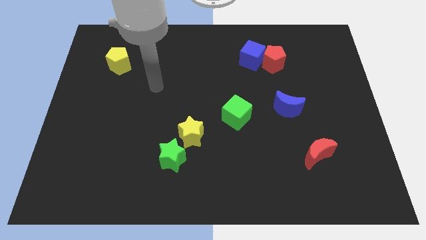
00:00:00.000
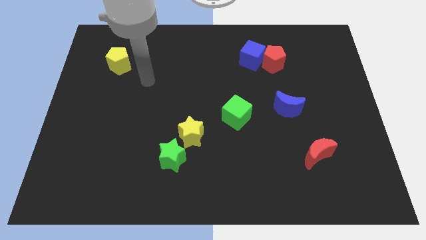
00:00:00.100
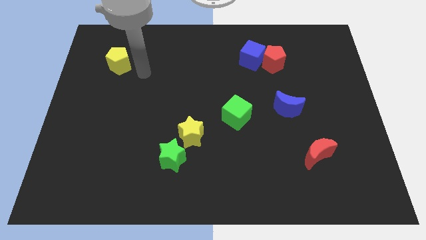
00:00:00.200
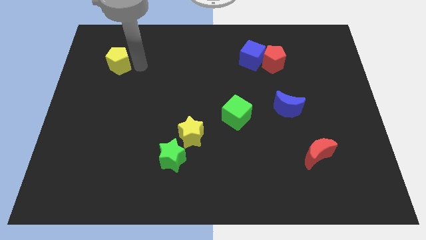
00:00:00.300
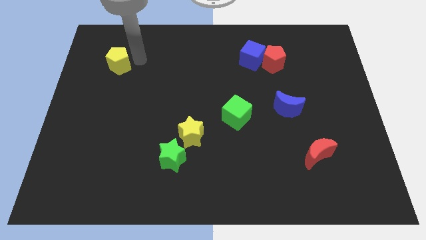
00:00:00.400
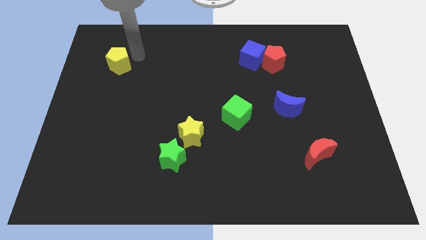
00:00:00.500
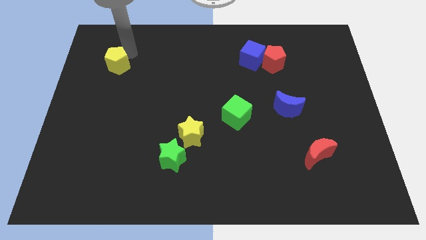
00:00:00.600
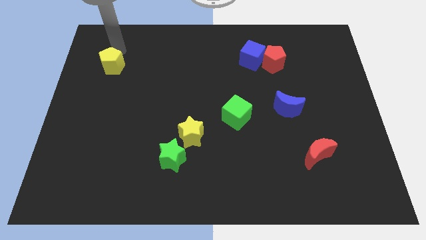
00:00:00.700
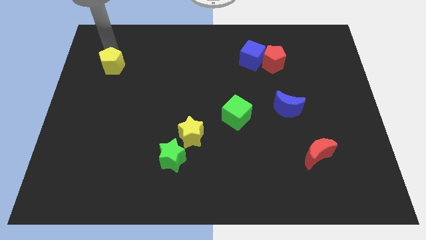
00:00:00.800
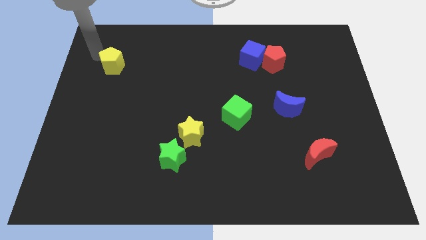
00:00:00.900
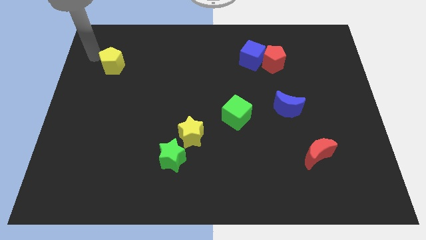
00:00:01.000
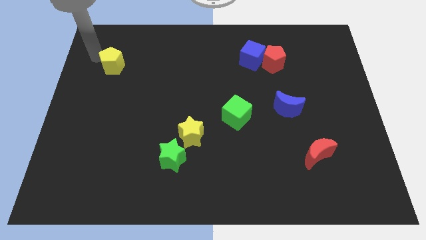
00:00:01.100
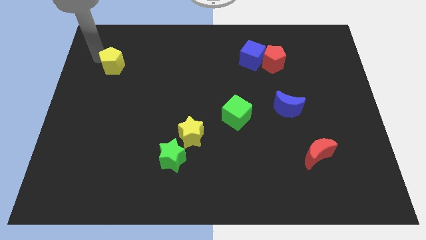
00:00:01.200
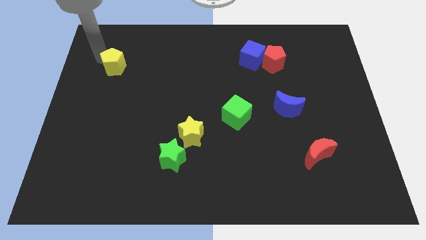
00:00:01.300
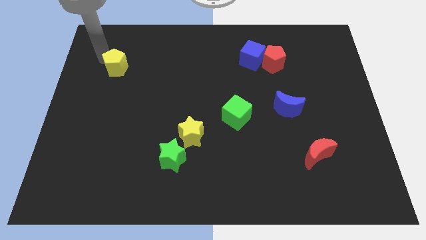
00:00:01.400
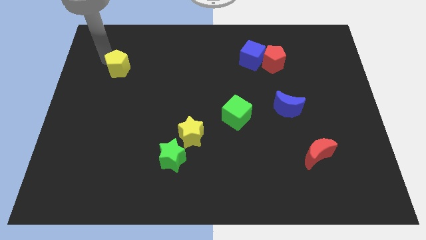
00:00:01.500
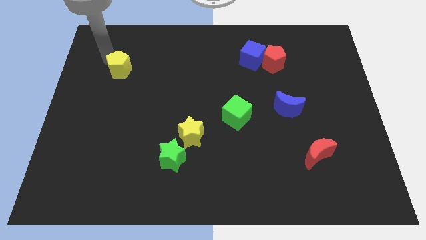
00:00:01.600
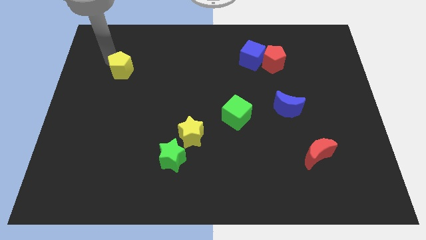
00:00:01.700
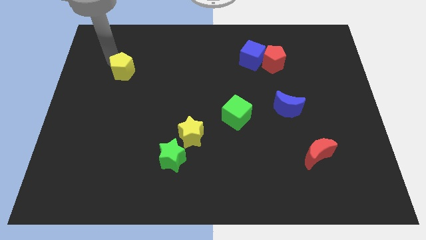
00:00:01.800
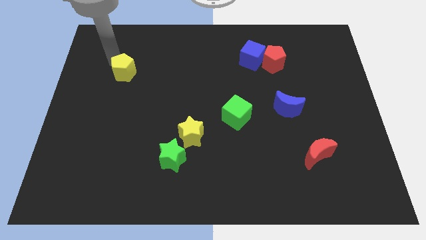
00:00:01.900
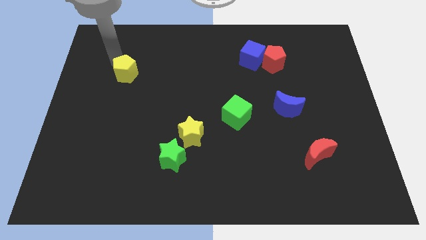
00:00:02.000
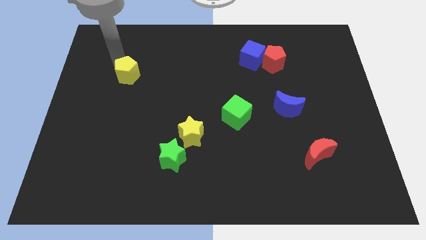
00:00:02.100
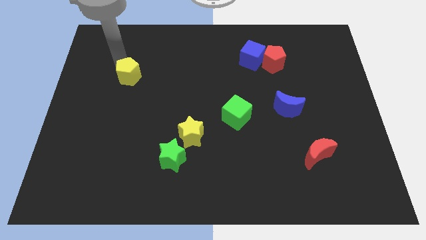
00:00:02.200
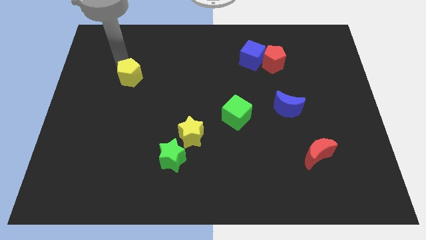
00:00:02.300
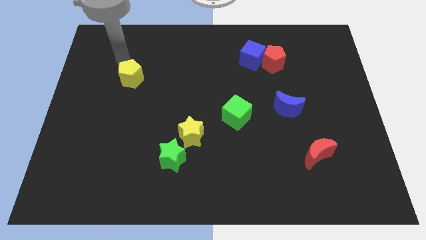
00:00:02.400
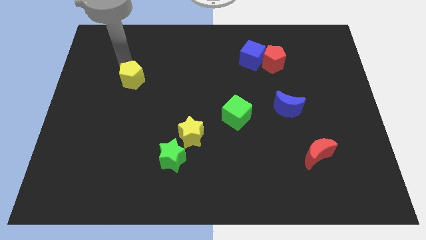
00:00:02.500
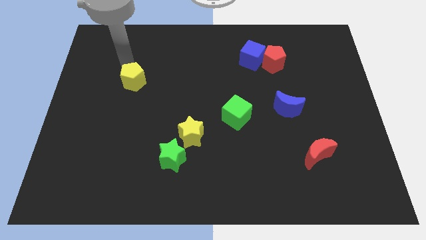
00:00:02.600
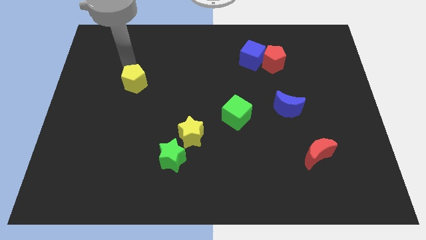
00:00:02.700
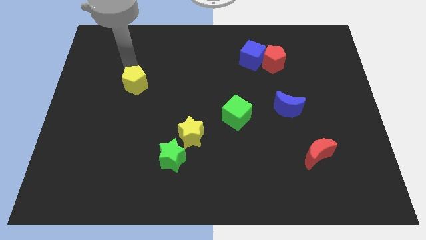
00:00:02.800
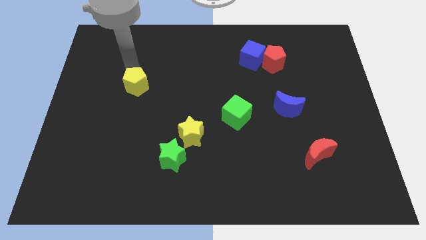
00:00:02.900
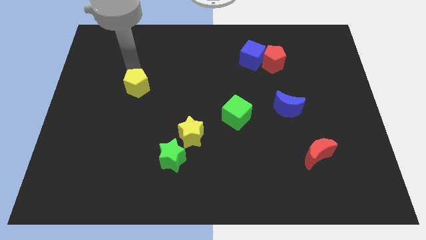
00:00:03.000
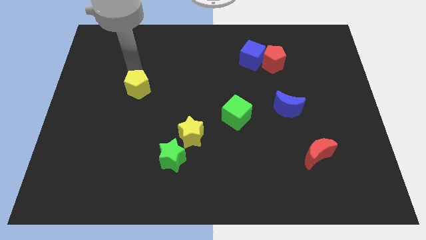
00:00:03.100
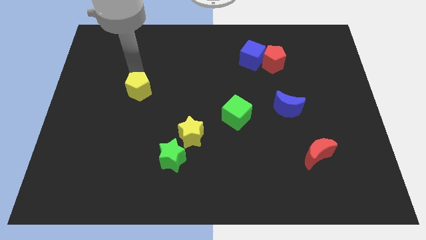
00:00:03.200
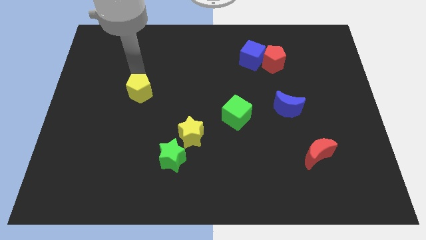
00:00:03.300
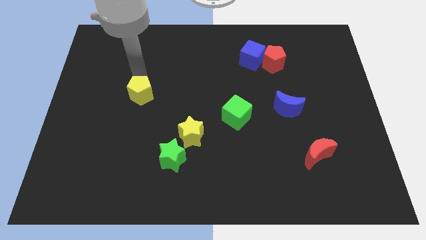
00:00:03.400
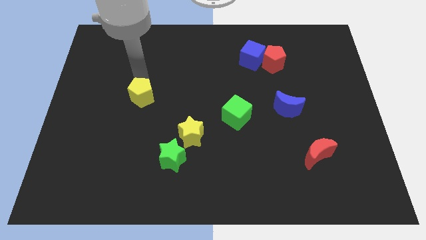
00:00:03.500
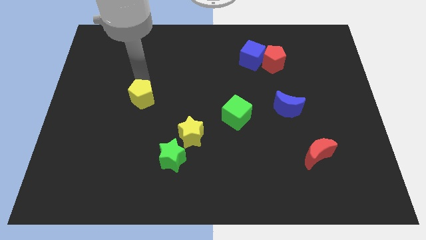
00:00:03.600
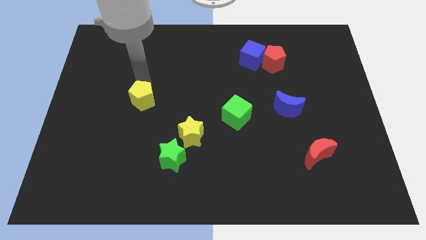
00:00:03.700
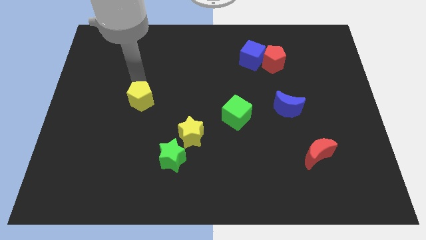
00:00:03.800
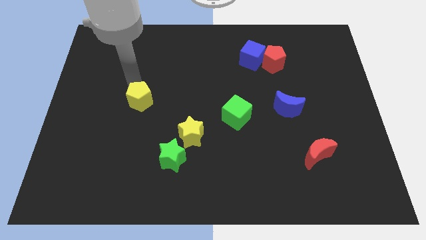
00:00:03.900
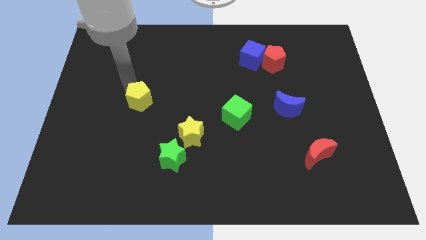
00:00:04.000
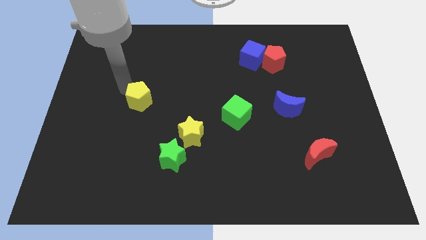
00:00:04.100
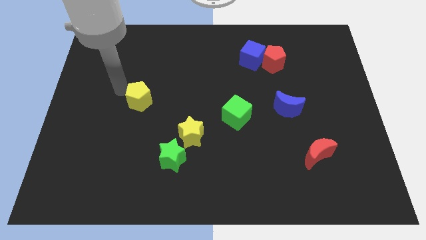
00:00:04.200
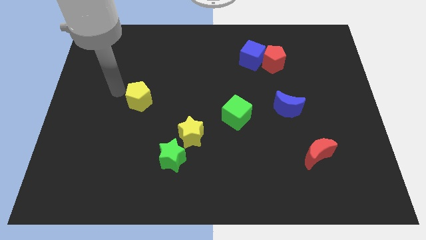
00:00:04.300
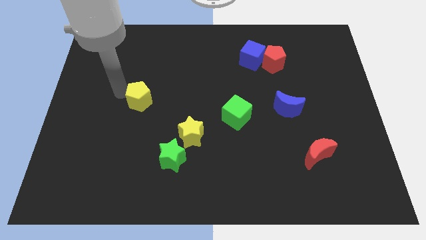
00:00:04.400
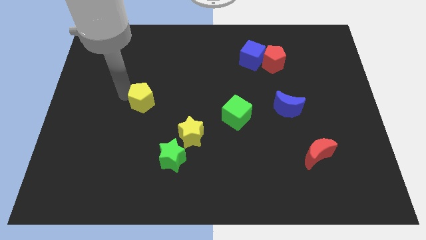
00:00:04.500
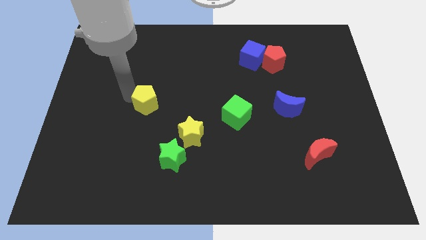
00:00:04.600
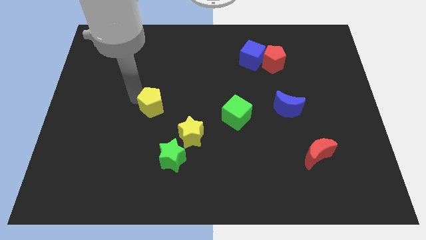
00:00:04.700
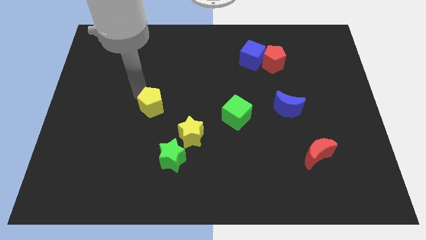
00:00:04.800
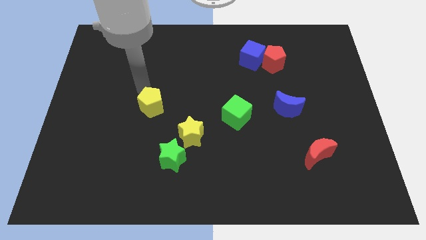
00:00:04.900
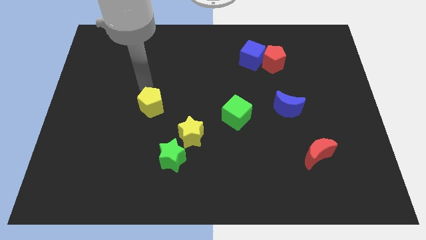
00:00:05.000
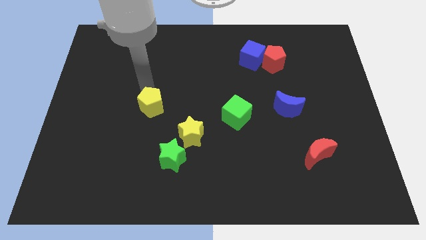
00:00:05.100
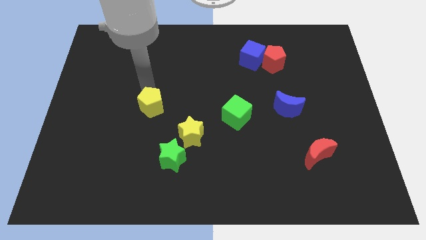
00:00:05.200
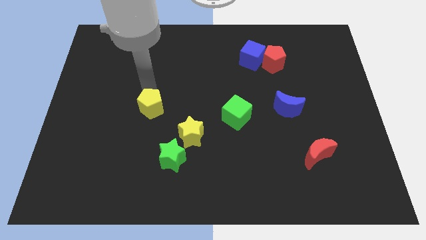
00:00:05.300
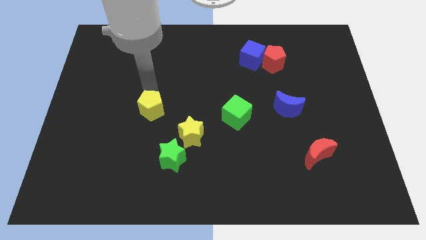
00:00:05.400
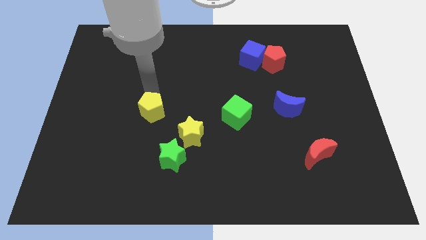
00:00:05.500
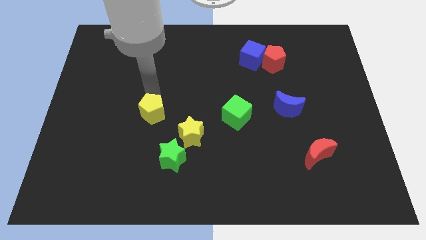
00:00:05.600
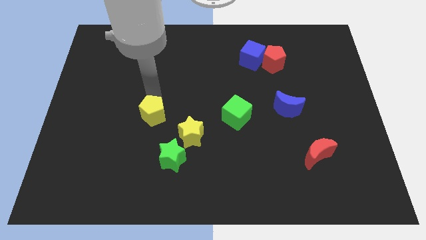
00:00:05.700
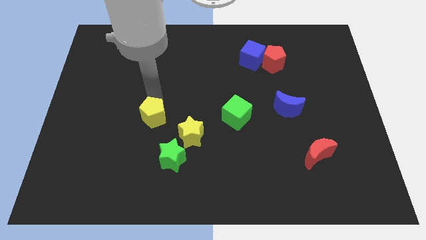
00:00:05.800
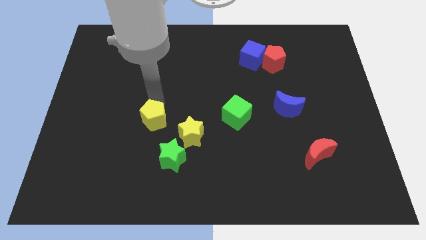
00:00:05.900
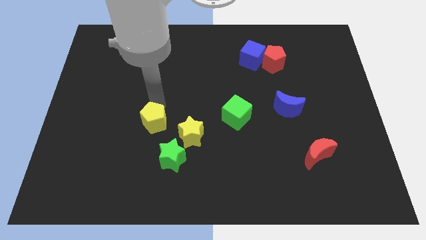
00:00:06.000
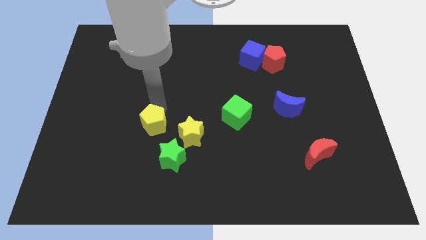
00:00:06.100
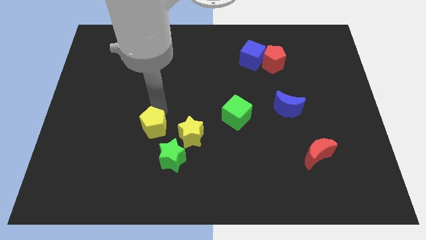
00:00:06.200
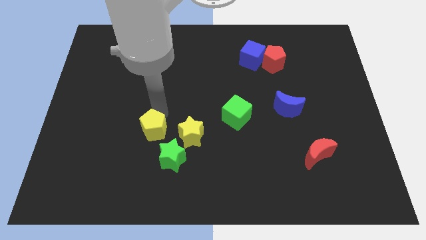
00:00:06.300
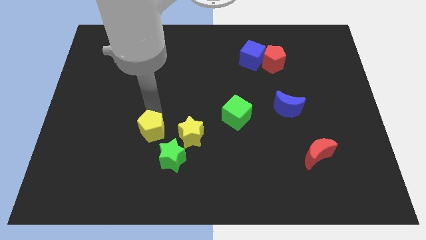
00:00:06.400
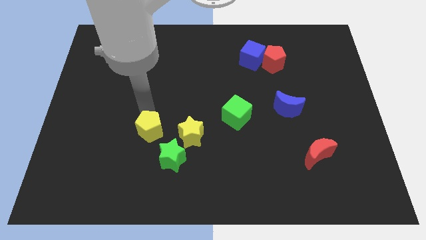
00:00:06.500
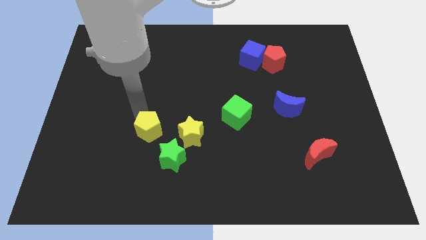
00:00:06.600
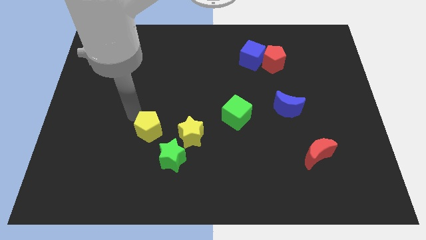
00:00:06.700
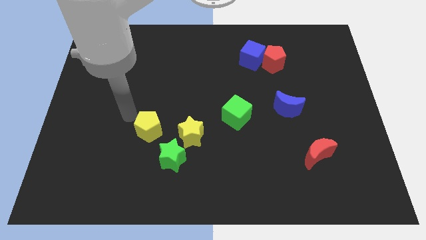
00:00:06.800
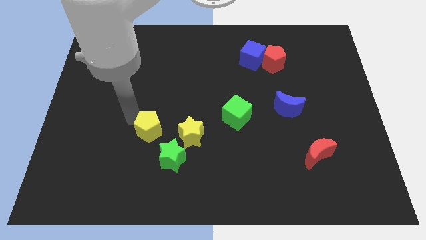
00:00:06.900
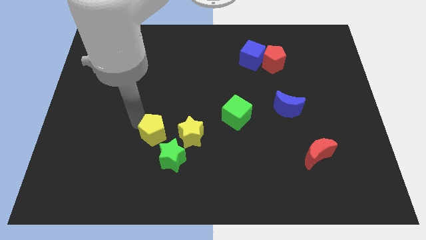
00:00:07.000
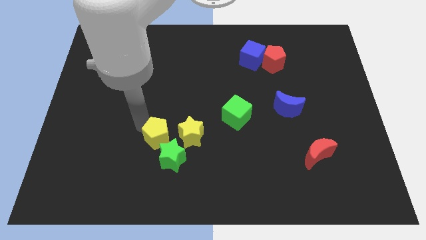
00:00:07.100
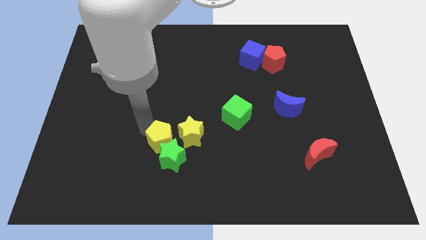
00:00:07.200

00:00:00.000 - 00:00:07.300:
put the yellow pentagon close to the green star
